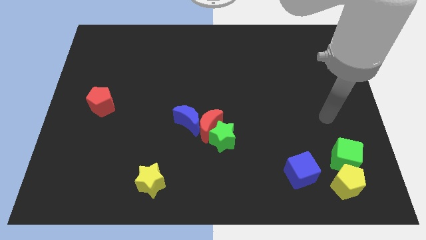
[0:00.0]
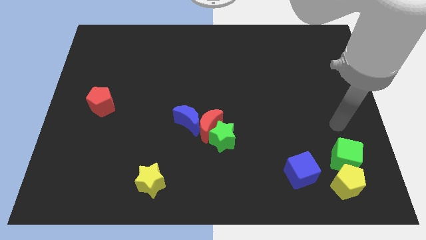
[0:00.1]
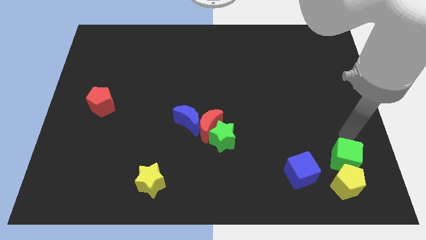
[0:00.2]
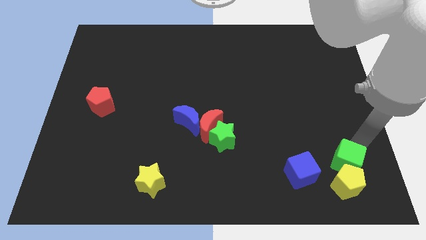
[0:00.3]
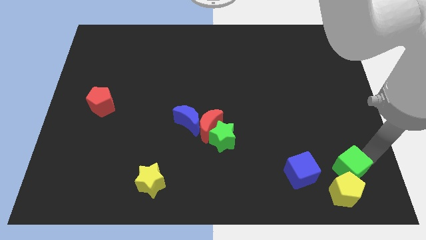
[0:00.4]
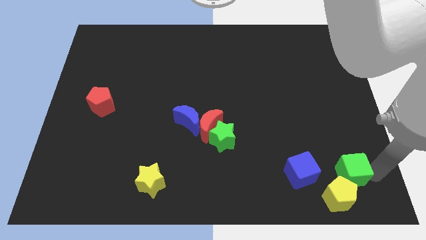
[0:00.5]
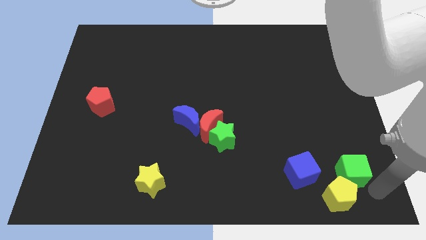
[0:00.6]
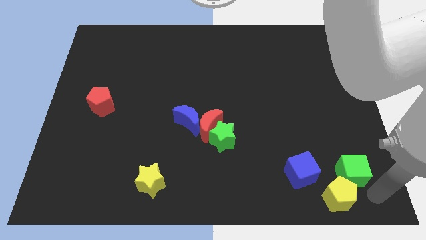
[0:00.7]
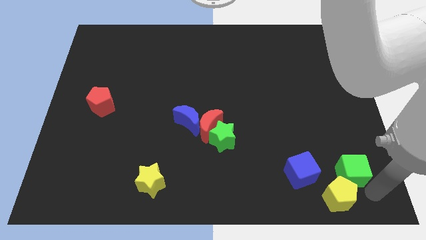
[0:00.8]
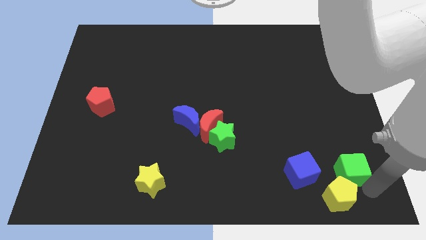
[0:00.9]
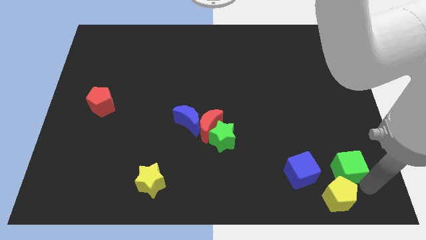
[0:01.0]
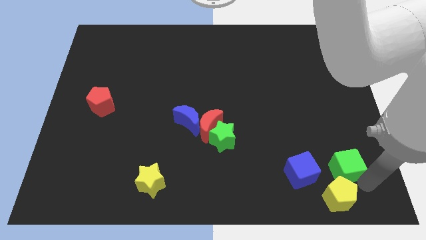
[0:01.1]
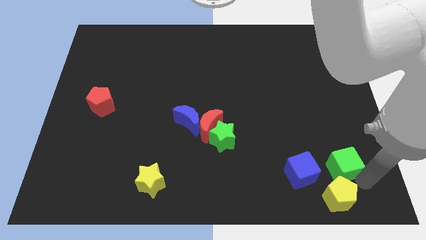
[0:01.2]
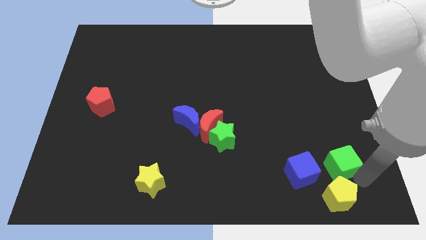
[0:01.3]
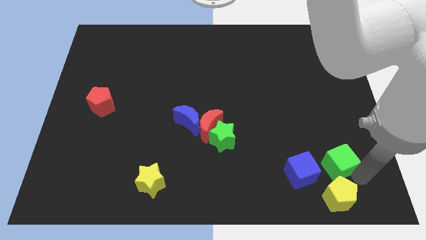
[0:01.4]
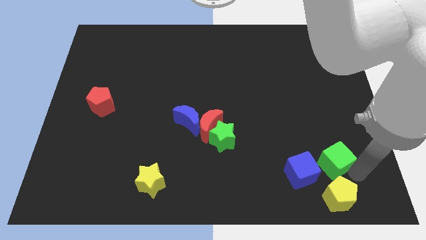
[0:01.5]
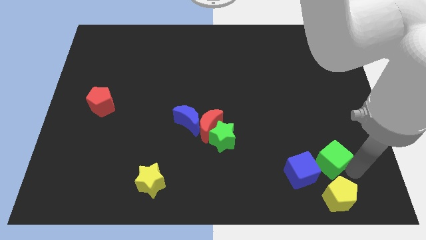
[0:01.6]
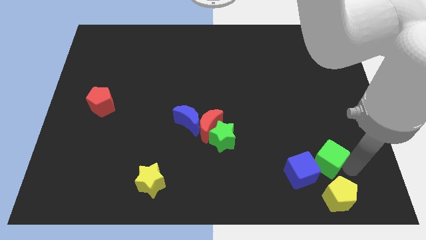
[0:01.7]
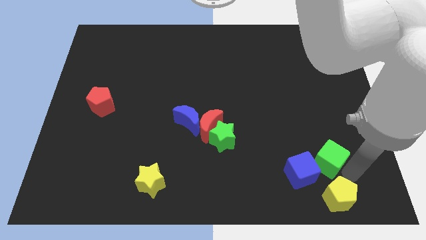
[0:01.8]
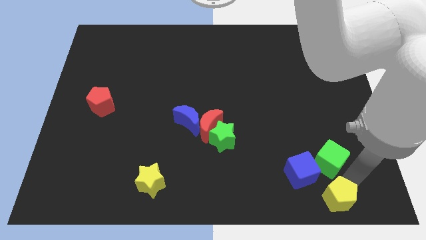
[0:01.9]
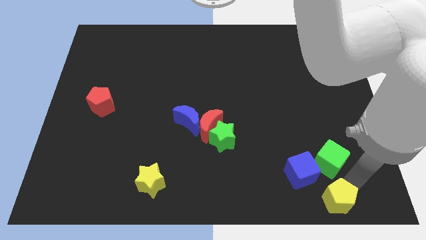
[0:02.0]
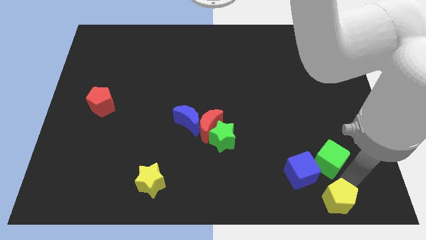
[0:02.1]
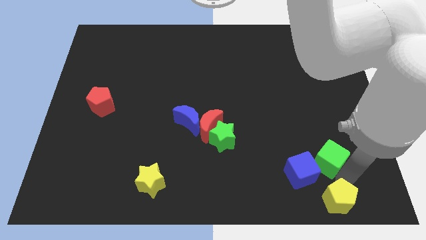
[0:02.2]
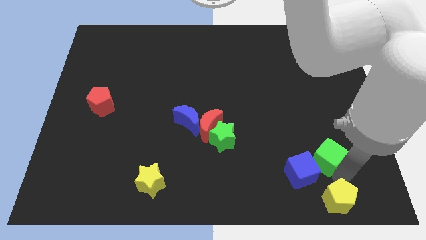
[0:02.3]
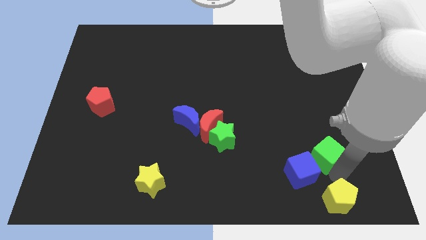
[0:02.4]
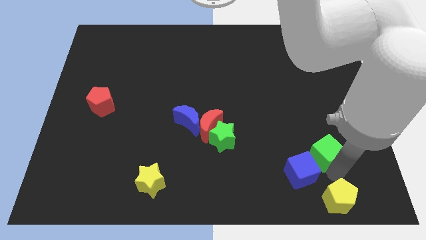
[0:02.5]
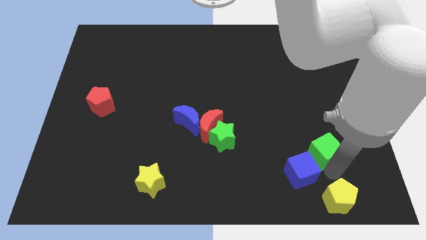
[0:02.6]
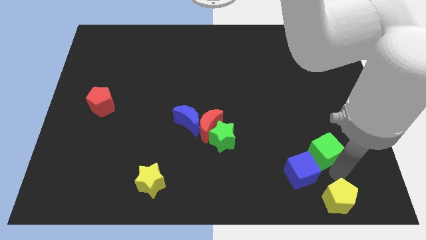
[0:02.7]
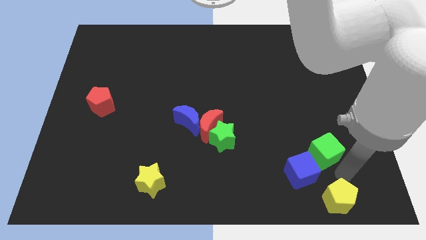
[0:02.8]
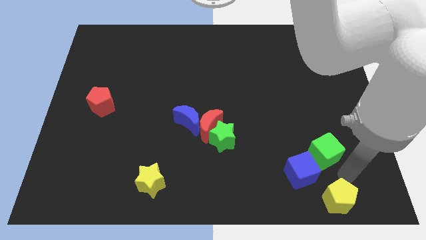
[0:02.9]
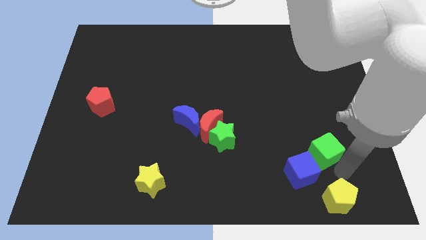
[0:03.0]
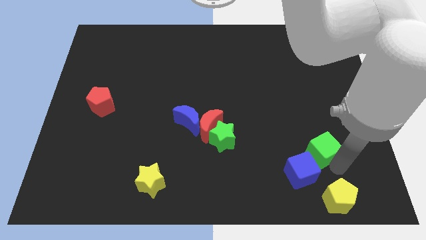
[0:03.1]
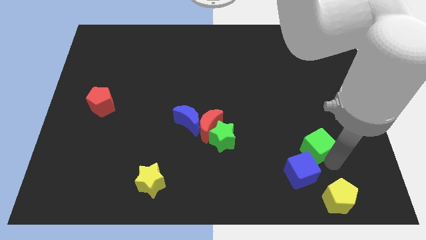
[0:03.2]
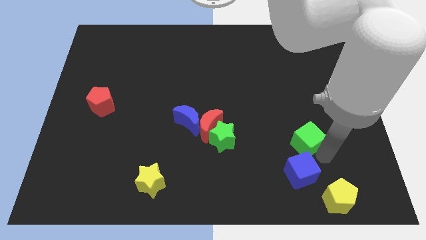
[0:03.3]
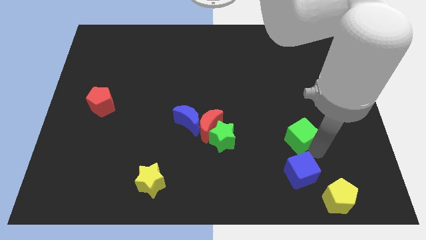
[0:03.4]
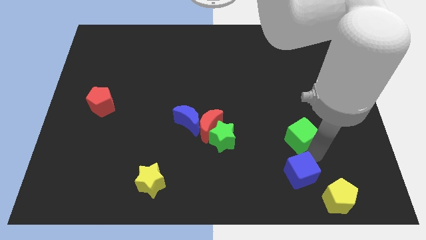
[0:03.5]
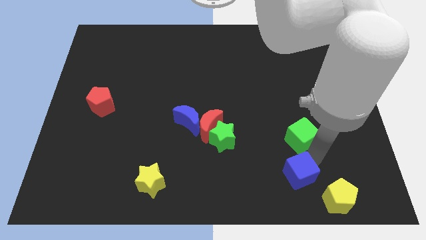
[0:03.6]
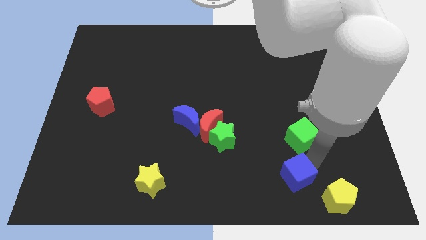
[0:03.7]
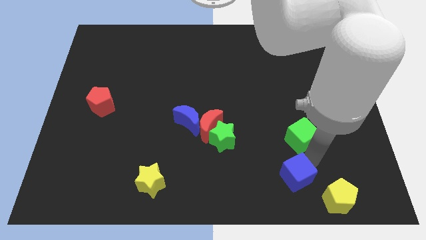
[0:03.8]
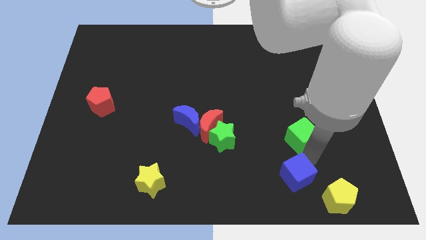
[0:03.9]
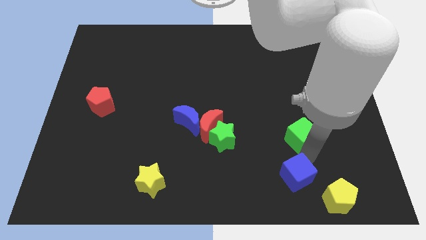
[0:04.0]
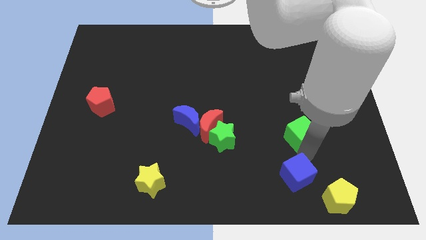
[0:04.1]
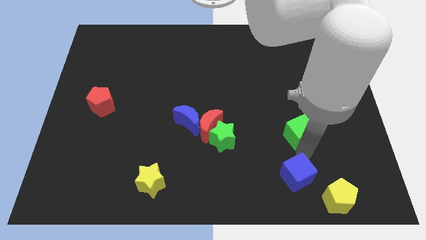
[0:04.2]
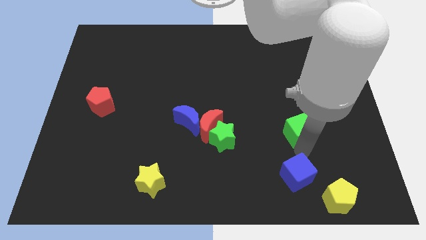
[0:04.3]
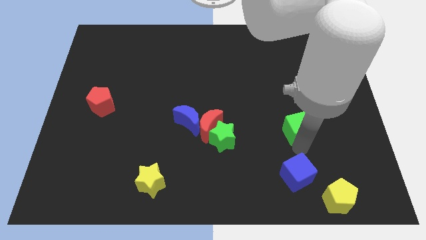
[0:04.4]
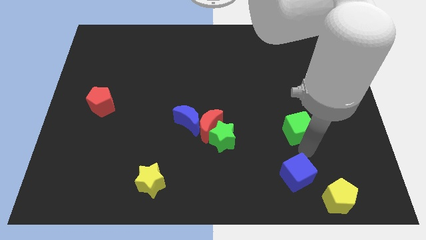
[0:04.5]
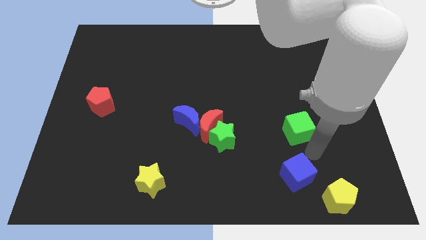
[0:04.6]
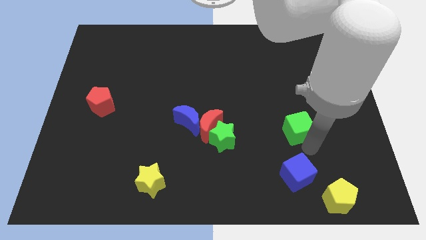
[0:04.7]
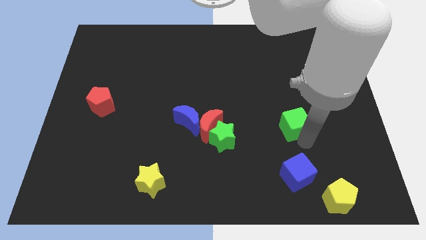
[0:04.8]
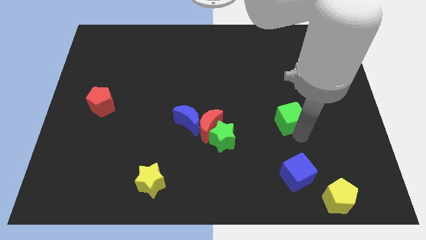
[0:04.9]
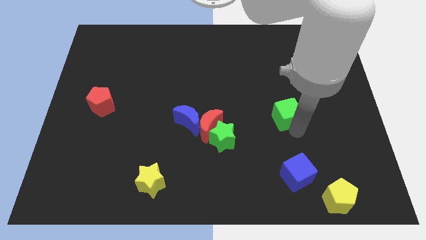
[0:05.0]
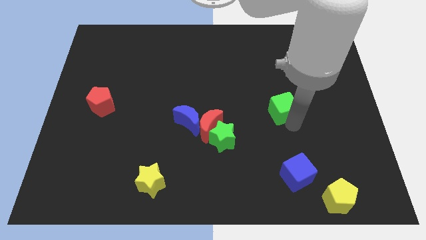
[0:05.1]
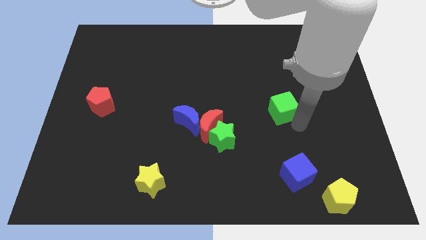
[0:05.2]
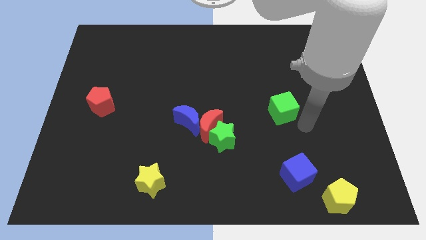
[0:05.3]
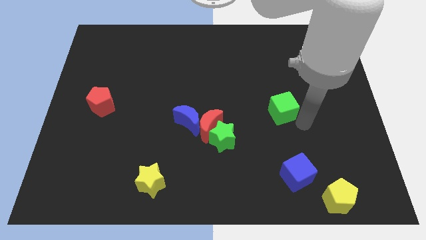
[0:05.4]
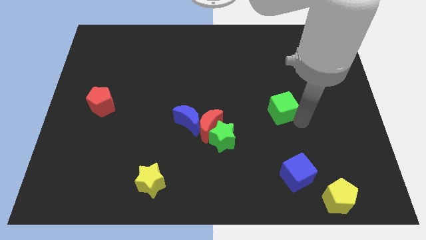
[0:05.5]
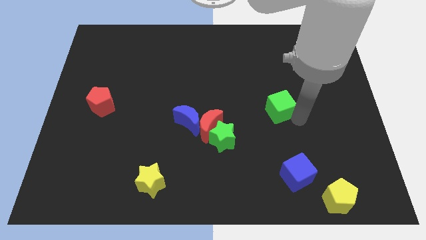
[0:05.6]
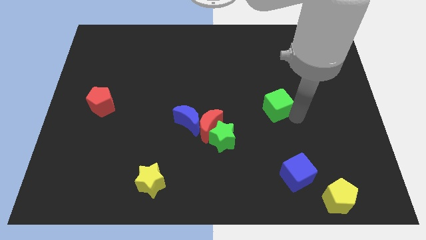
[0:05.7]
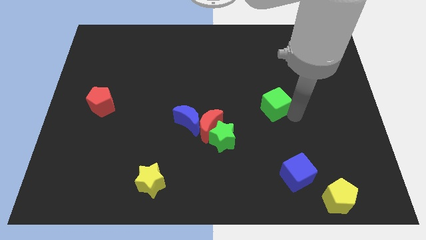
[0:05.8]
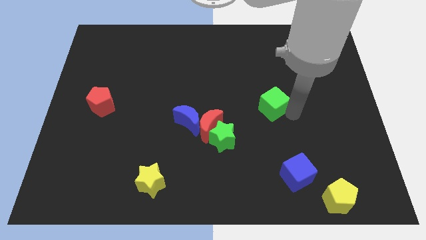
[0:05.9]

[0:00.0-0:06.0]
move the green cube upwards and to the left

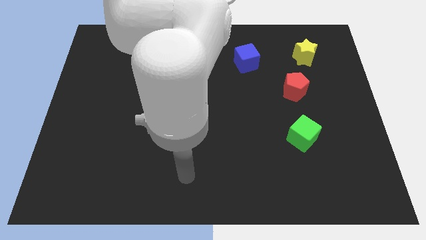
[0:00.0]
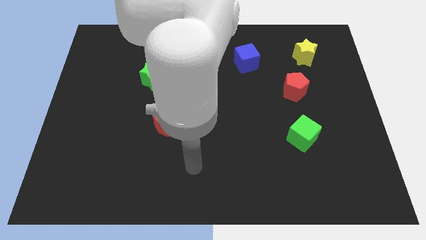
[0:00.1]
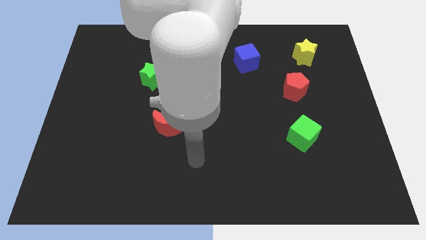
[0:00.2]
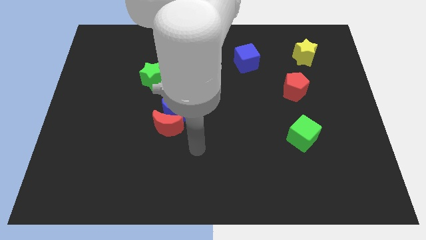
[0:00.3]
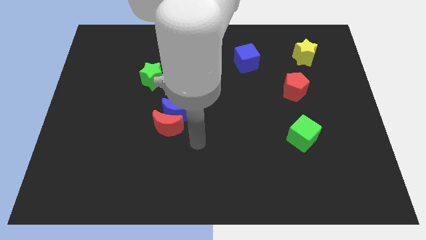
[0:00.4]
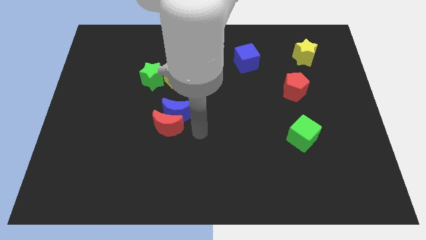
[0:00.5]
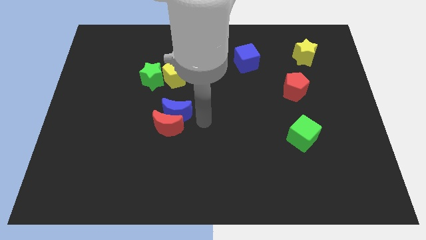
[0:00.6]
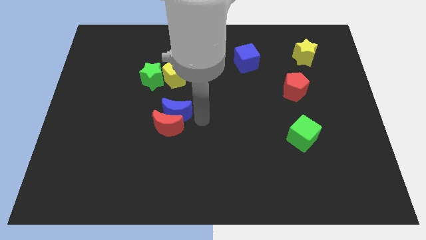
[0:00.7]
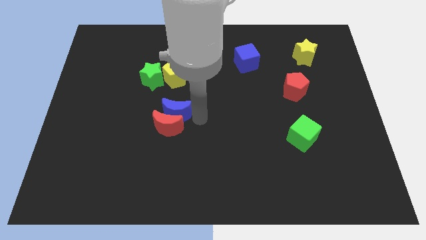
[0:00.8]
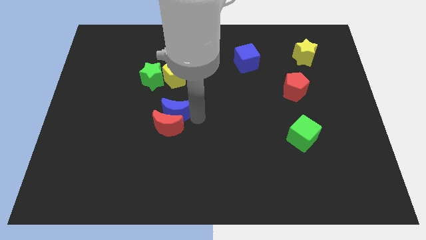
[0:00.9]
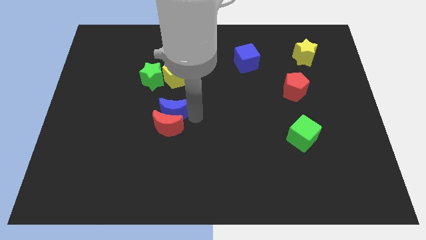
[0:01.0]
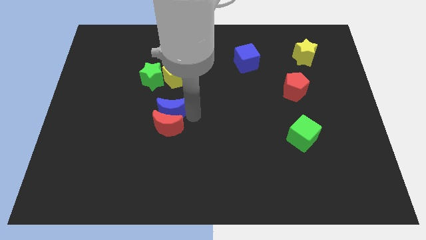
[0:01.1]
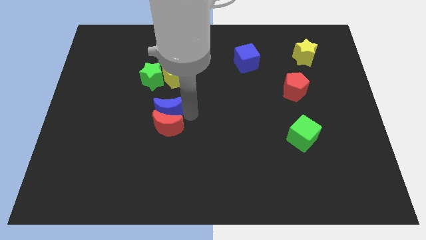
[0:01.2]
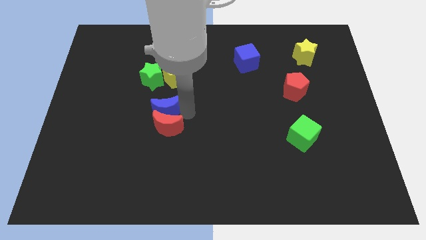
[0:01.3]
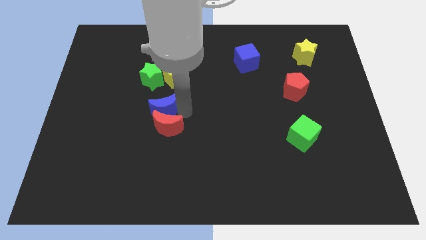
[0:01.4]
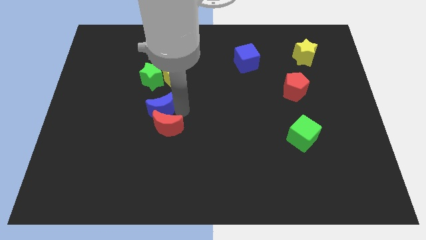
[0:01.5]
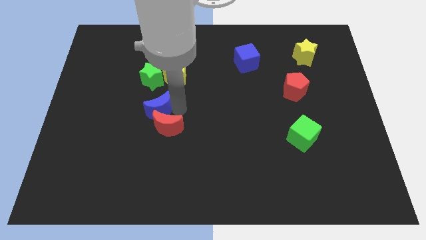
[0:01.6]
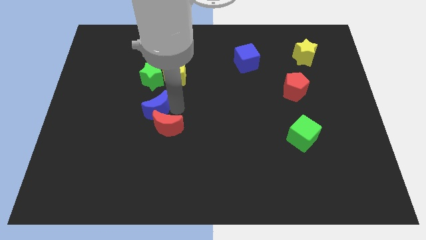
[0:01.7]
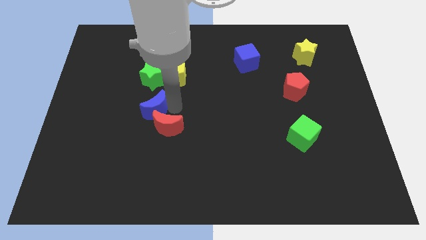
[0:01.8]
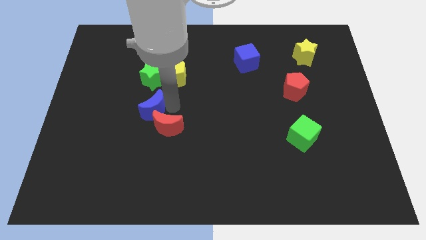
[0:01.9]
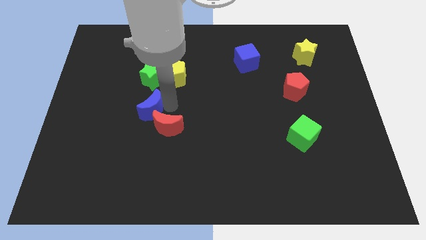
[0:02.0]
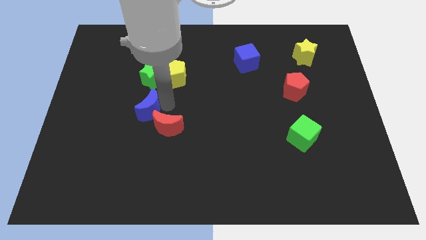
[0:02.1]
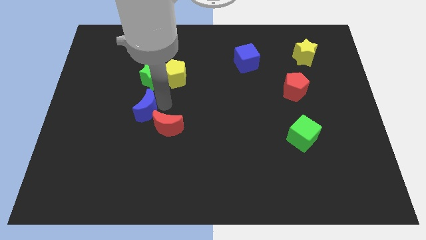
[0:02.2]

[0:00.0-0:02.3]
push the blue moon a little bit to the left

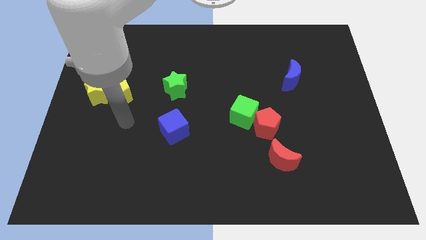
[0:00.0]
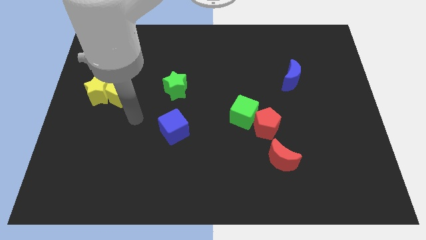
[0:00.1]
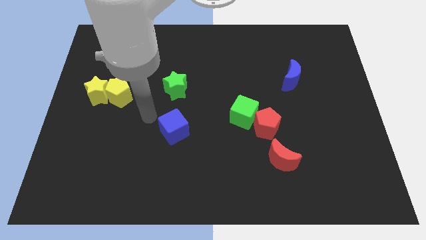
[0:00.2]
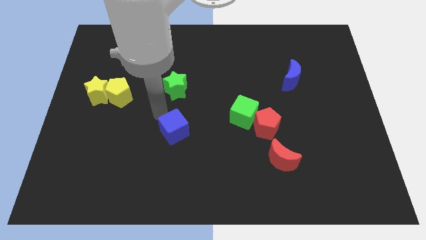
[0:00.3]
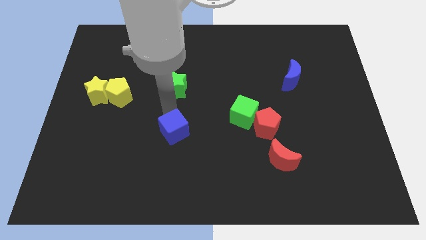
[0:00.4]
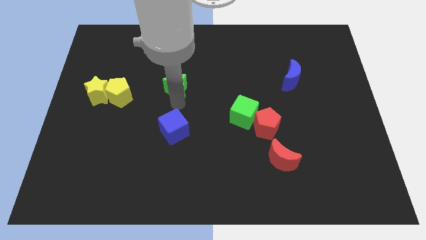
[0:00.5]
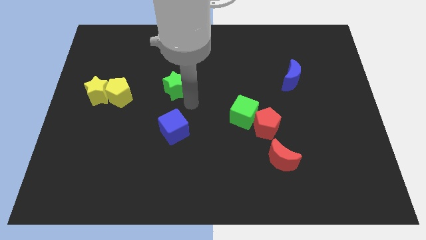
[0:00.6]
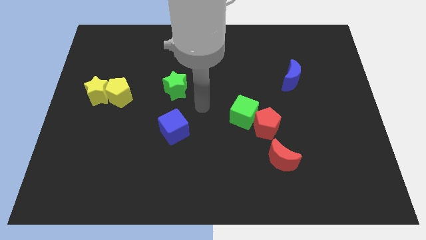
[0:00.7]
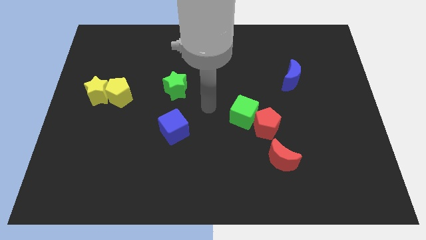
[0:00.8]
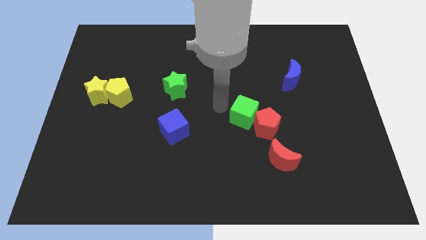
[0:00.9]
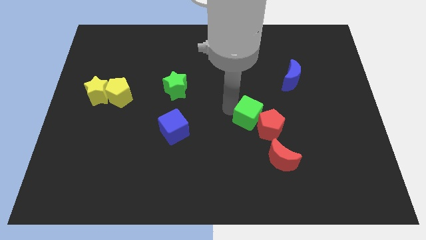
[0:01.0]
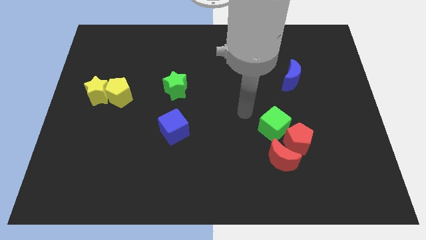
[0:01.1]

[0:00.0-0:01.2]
push the red pentagon diagonally down and right a little
